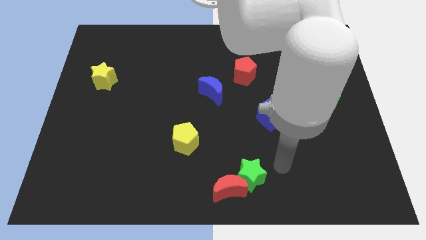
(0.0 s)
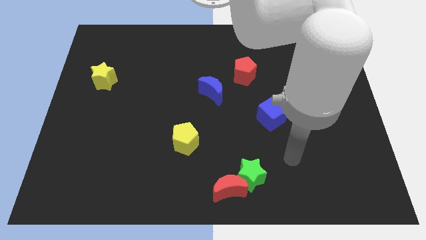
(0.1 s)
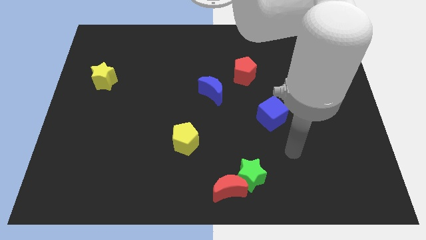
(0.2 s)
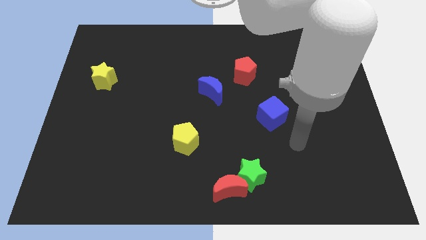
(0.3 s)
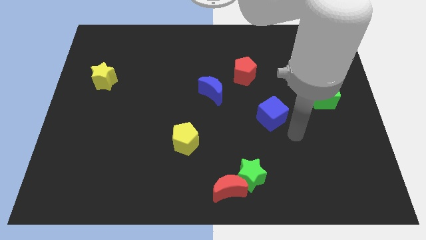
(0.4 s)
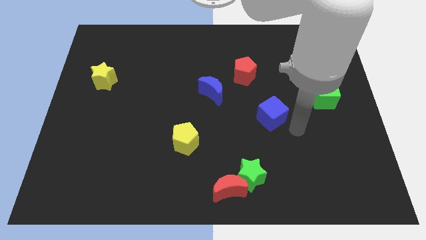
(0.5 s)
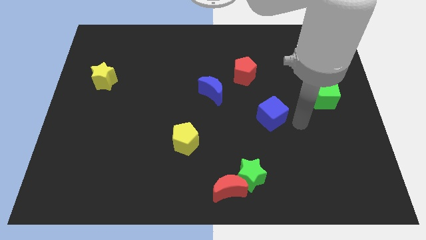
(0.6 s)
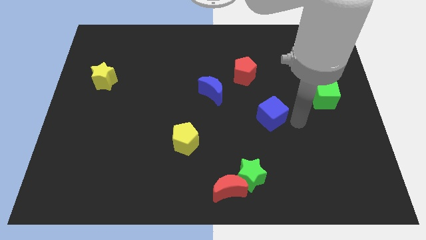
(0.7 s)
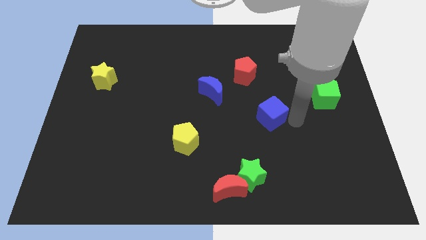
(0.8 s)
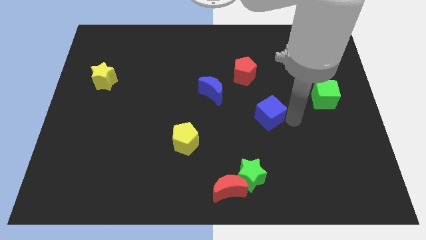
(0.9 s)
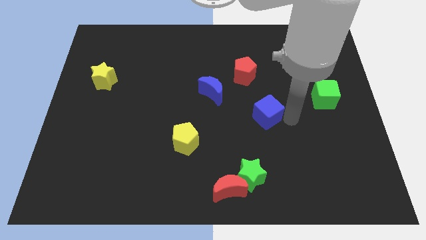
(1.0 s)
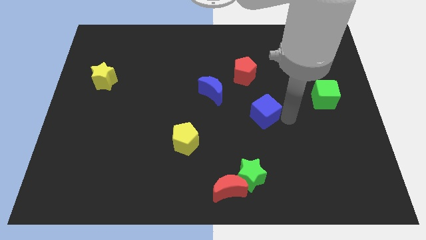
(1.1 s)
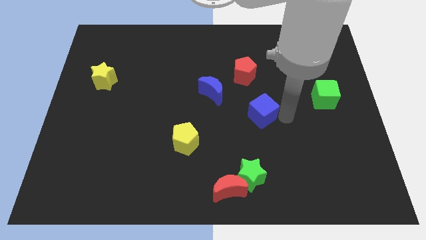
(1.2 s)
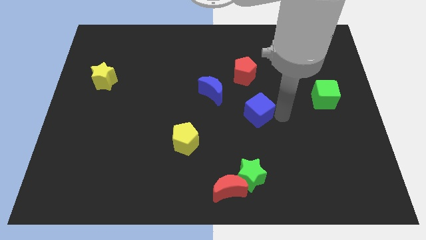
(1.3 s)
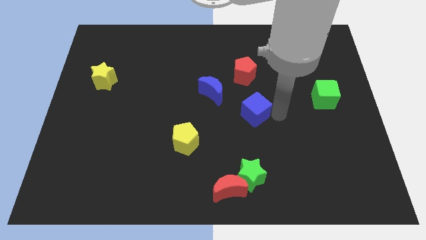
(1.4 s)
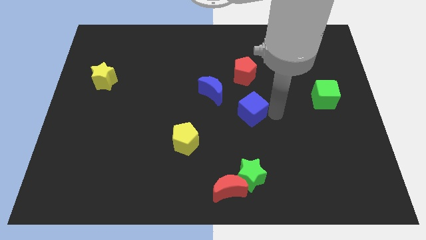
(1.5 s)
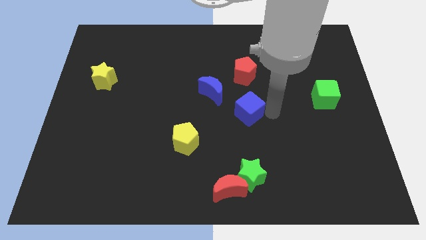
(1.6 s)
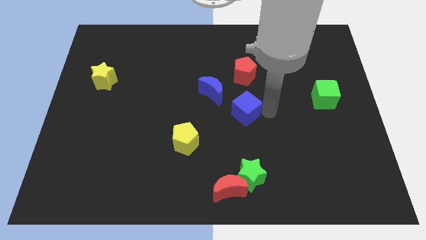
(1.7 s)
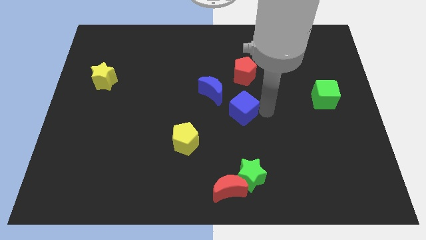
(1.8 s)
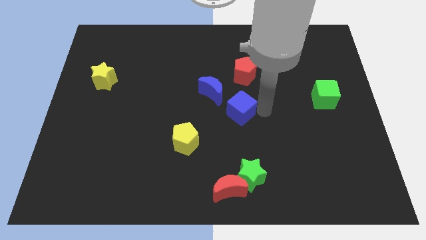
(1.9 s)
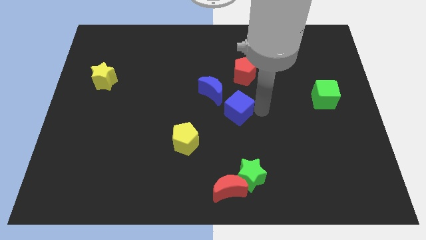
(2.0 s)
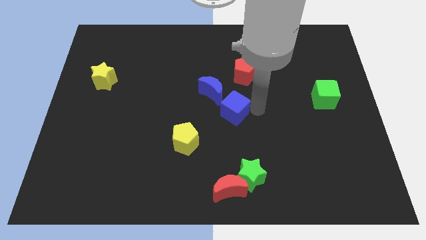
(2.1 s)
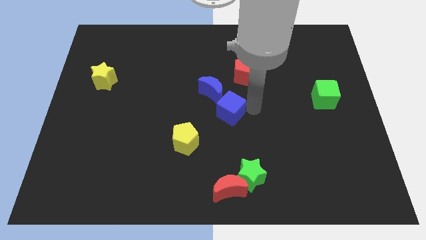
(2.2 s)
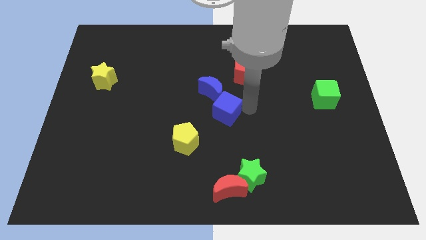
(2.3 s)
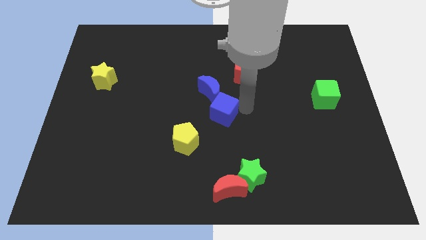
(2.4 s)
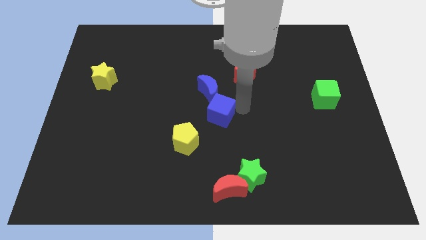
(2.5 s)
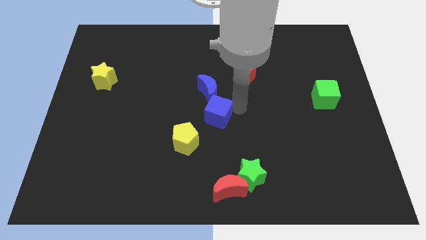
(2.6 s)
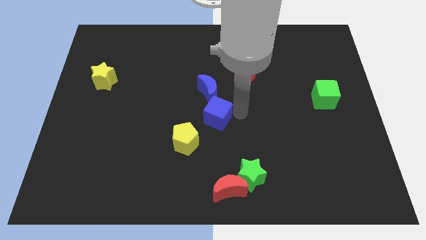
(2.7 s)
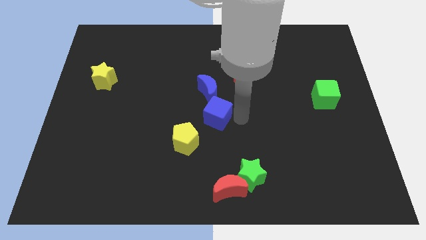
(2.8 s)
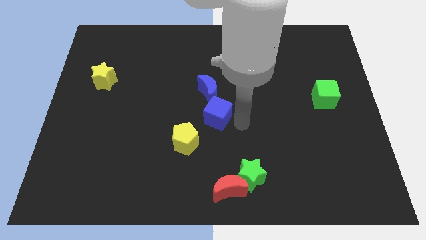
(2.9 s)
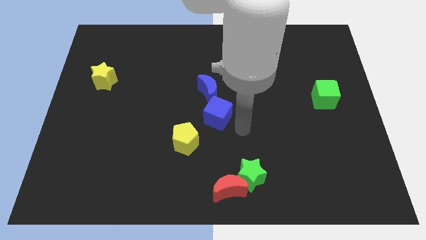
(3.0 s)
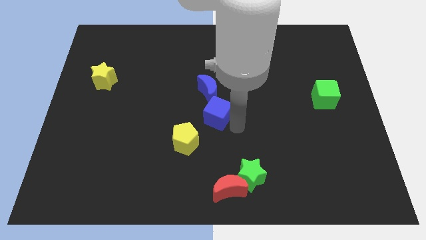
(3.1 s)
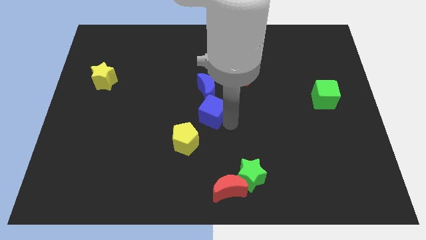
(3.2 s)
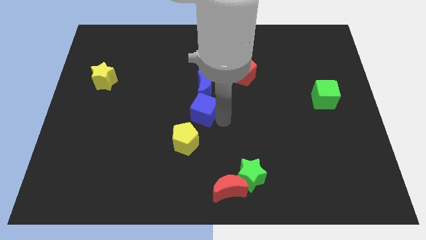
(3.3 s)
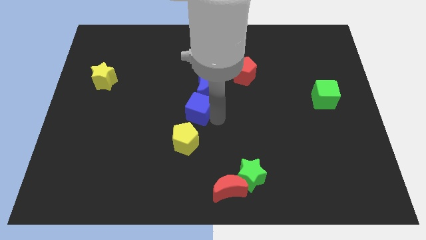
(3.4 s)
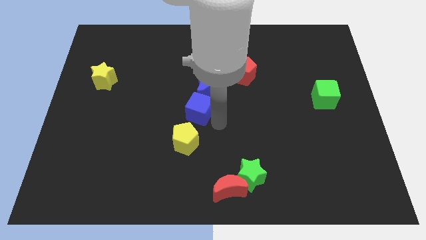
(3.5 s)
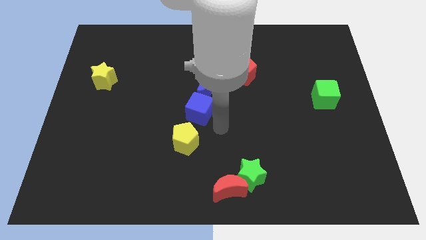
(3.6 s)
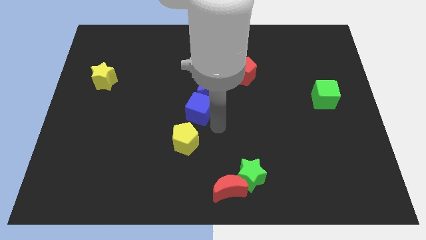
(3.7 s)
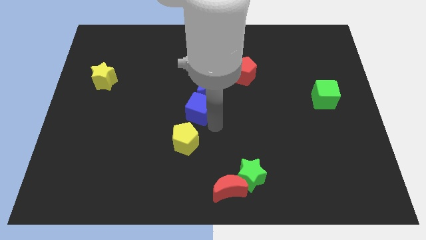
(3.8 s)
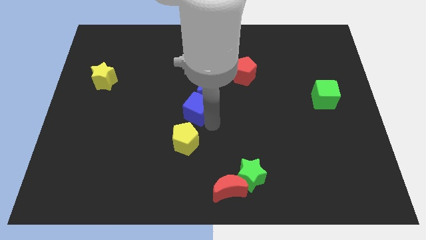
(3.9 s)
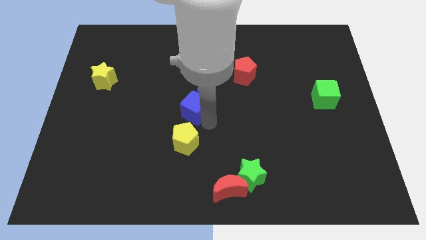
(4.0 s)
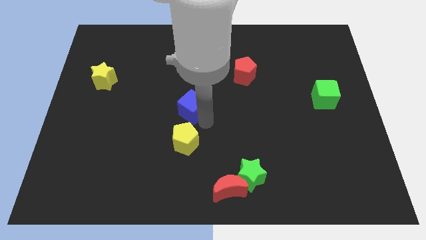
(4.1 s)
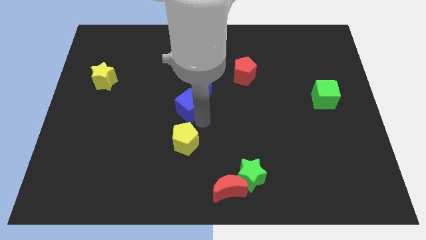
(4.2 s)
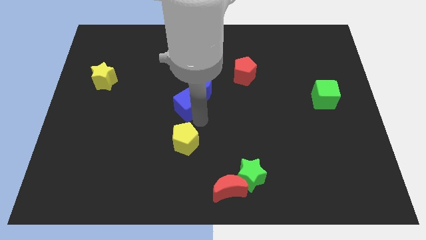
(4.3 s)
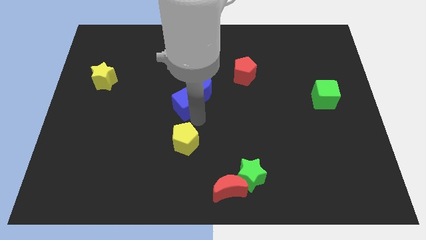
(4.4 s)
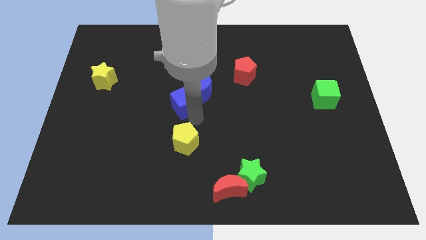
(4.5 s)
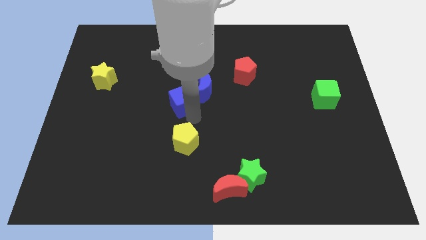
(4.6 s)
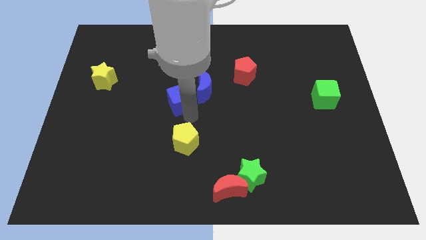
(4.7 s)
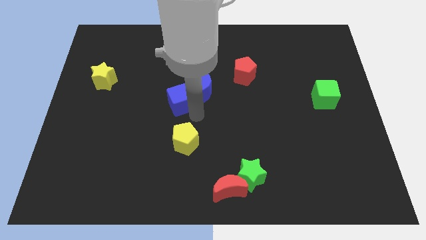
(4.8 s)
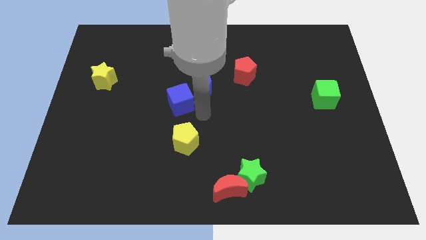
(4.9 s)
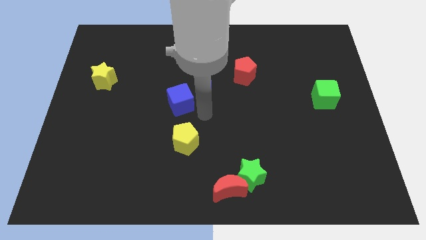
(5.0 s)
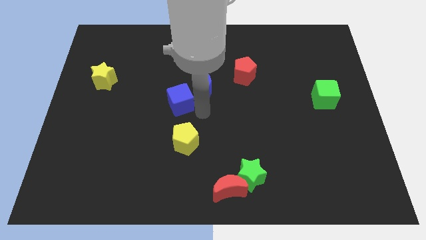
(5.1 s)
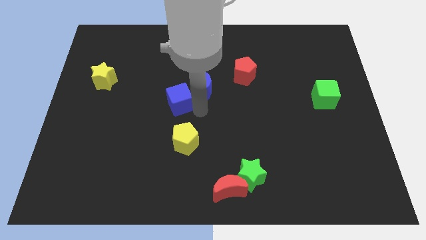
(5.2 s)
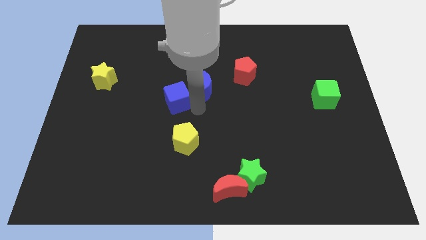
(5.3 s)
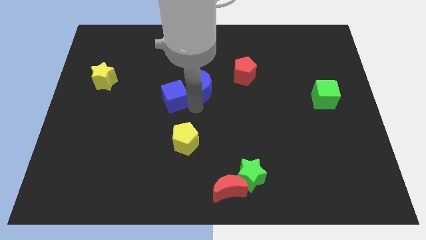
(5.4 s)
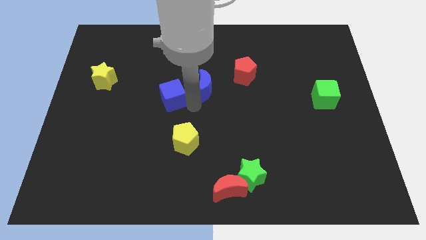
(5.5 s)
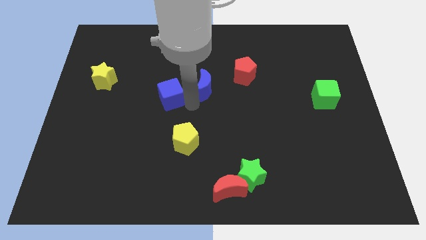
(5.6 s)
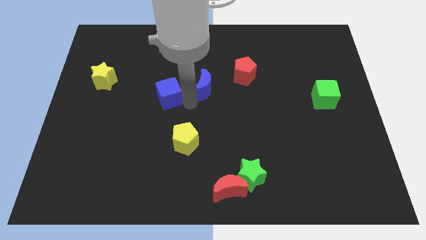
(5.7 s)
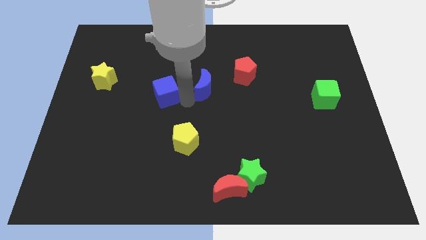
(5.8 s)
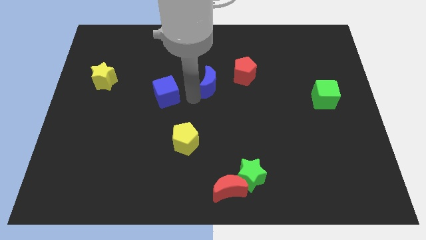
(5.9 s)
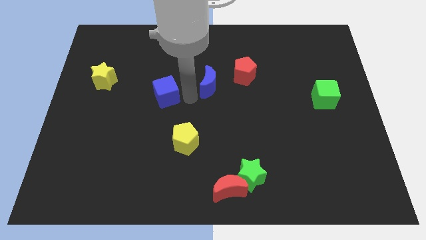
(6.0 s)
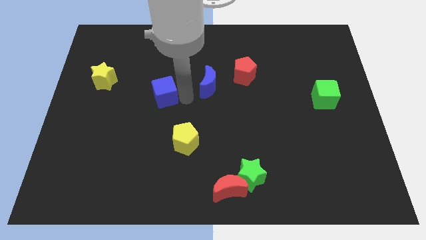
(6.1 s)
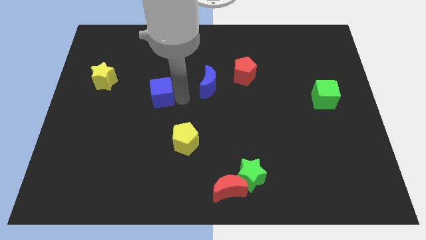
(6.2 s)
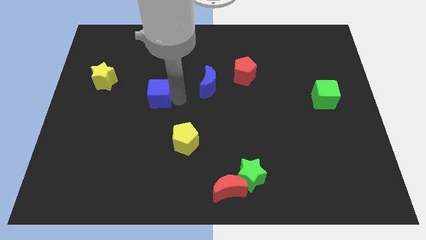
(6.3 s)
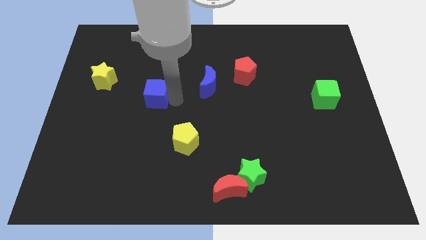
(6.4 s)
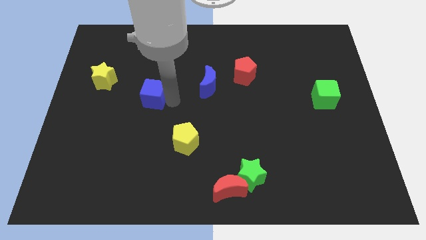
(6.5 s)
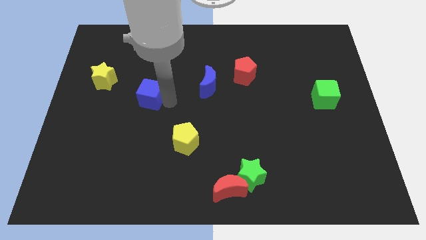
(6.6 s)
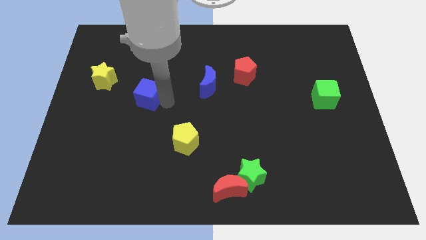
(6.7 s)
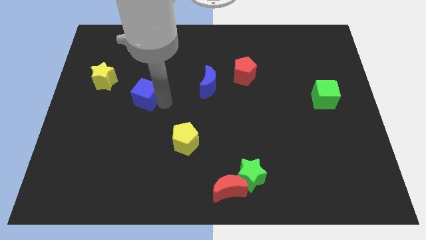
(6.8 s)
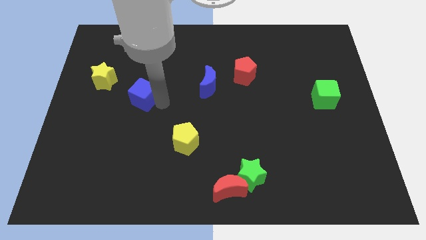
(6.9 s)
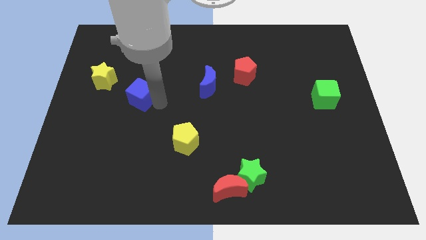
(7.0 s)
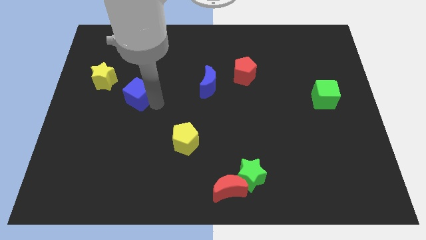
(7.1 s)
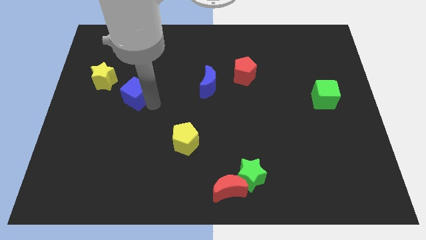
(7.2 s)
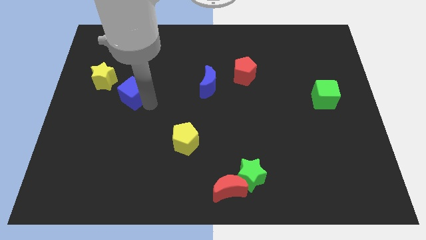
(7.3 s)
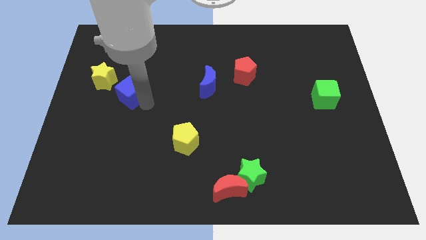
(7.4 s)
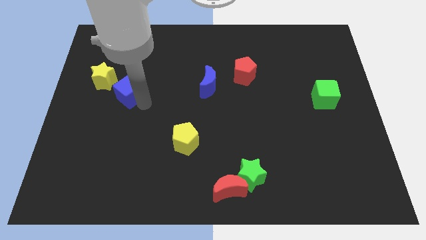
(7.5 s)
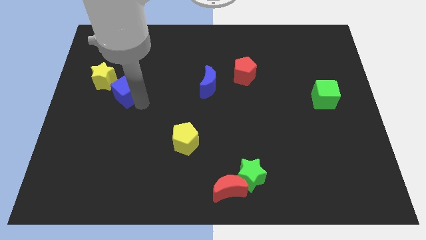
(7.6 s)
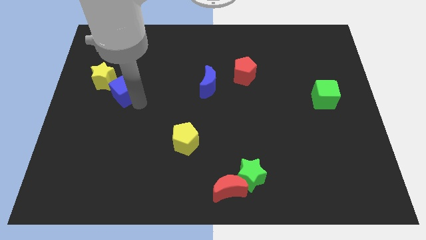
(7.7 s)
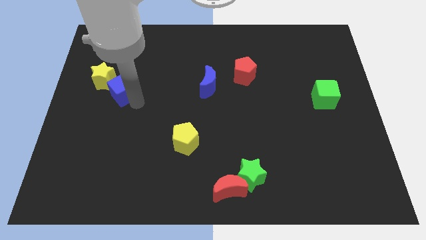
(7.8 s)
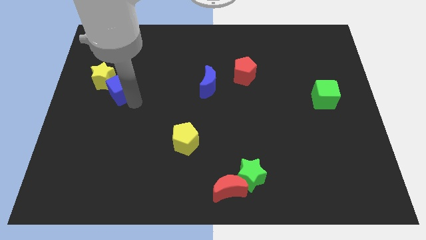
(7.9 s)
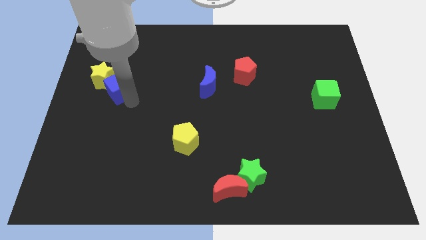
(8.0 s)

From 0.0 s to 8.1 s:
move the blue cube close to the yellow star
